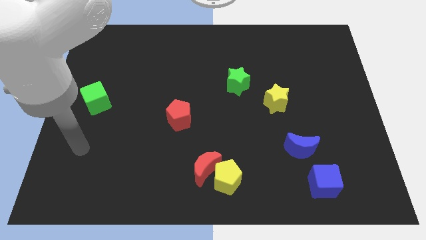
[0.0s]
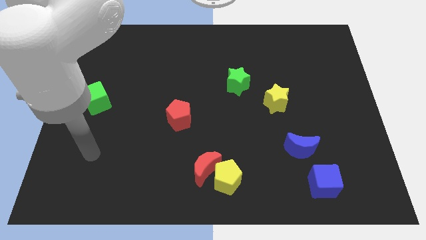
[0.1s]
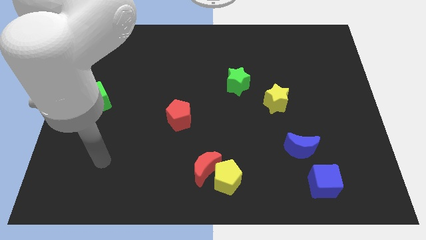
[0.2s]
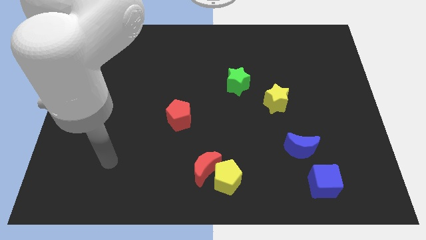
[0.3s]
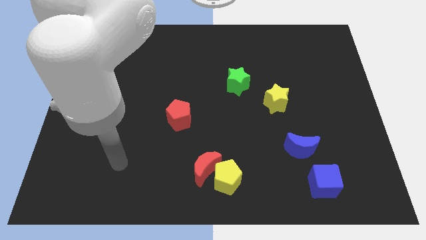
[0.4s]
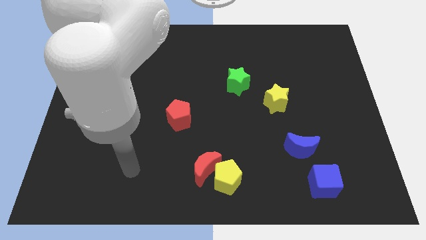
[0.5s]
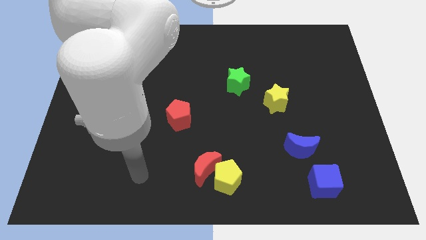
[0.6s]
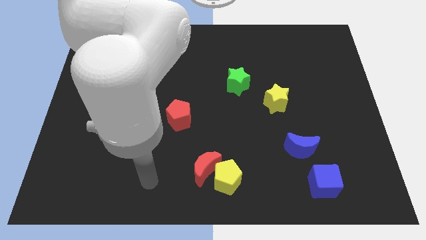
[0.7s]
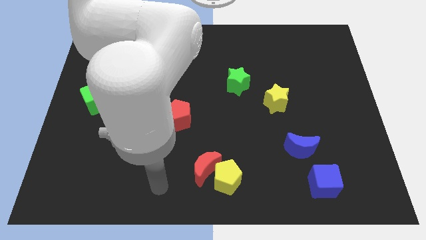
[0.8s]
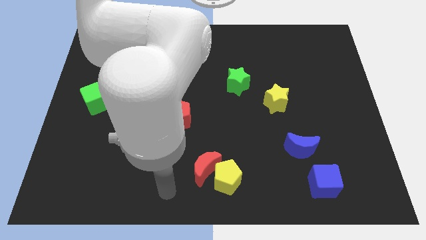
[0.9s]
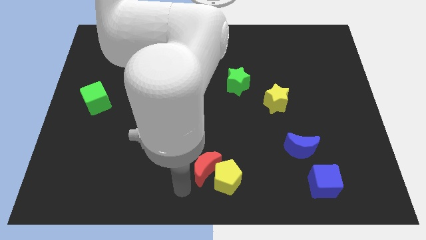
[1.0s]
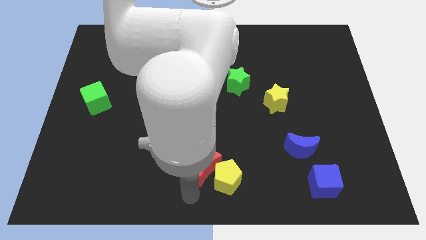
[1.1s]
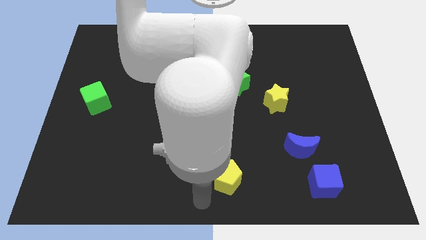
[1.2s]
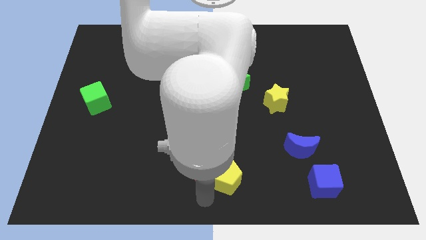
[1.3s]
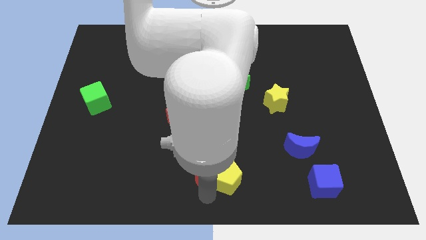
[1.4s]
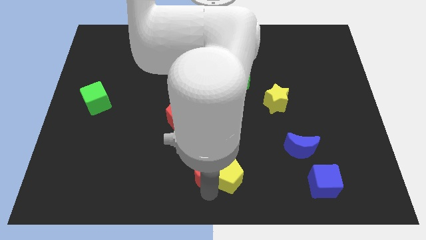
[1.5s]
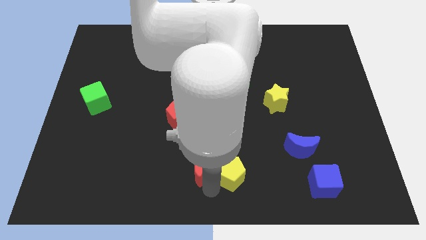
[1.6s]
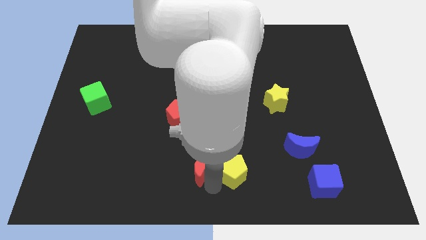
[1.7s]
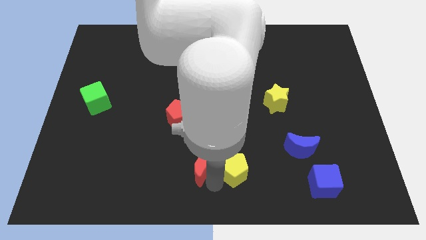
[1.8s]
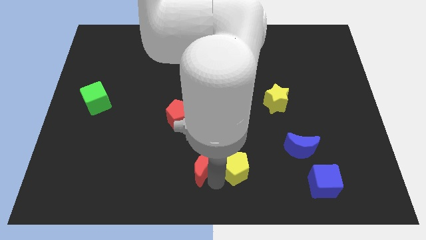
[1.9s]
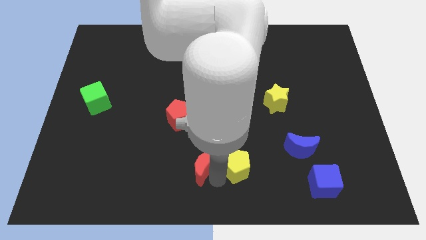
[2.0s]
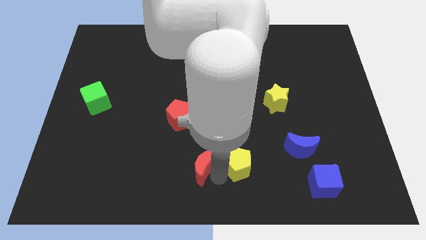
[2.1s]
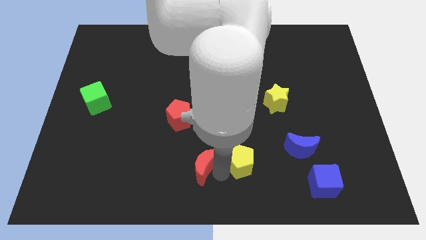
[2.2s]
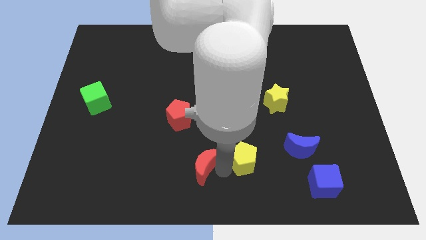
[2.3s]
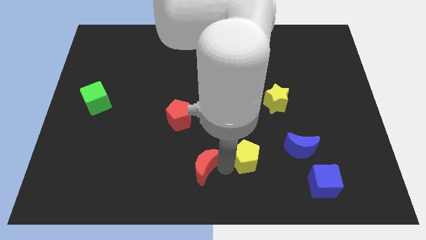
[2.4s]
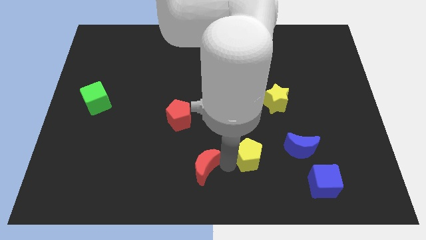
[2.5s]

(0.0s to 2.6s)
slightly push the yellow pentagon up and to the right

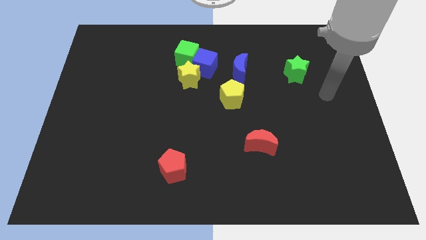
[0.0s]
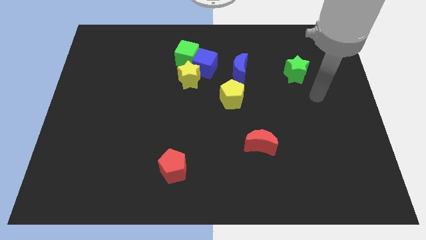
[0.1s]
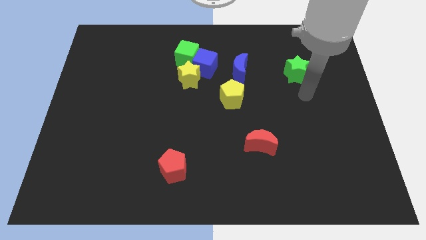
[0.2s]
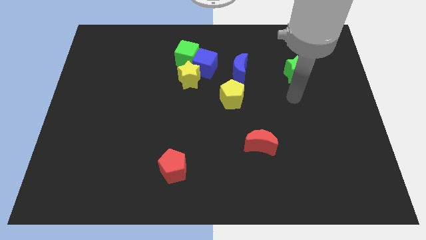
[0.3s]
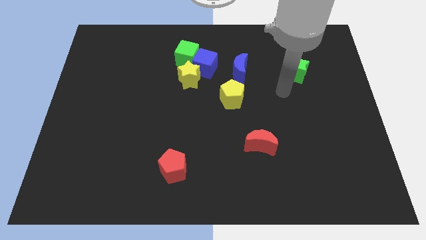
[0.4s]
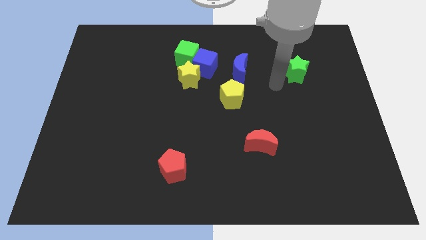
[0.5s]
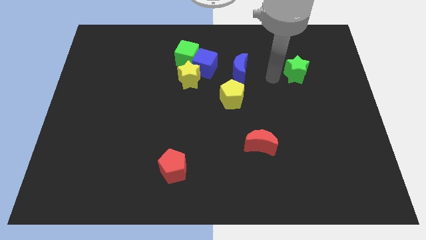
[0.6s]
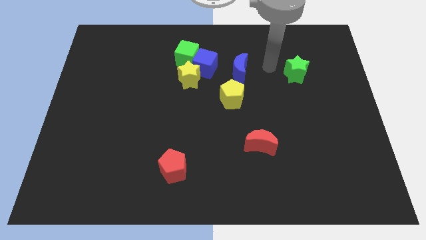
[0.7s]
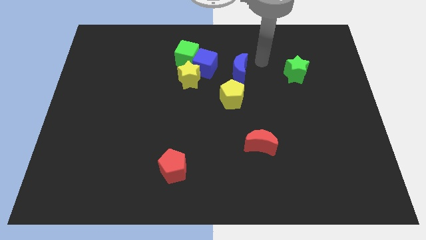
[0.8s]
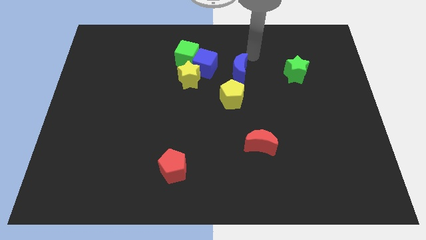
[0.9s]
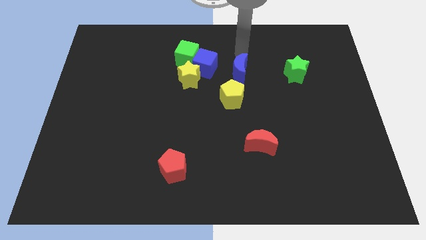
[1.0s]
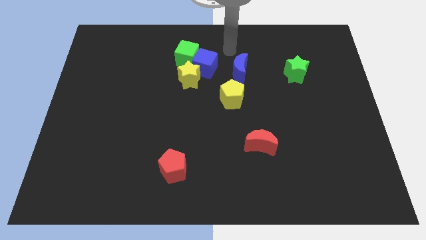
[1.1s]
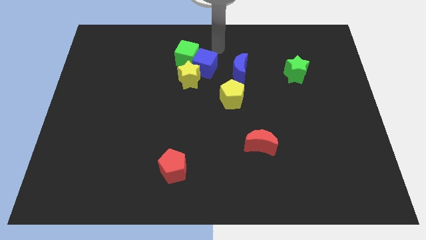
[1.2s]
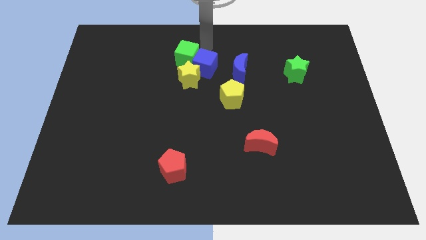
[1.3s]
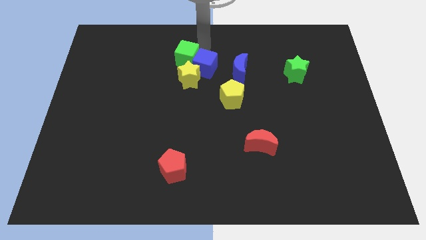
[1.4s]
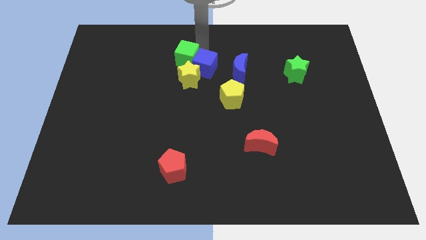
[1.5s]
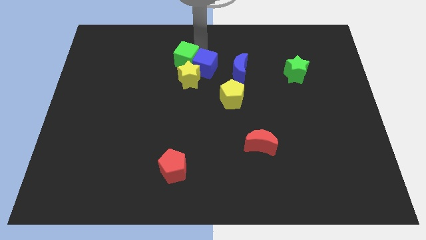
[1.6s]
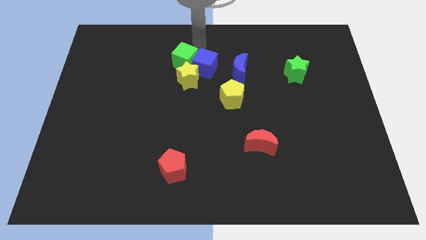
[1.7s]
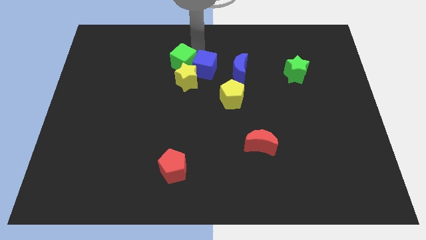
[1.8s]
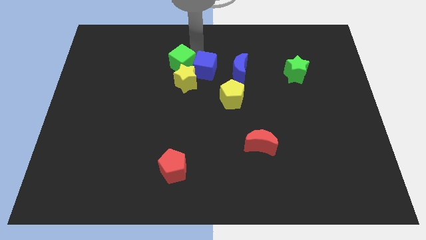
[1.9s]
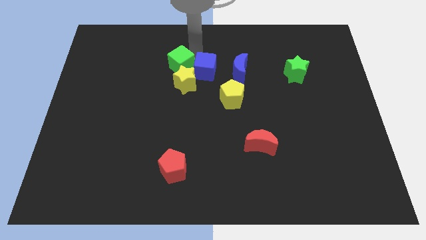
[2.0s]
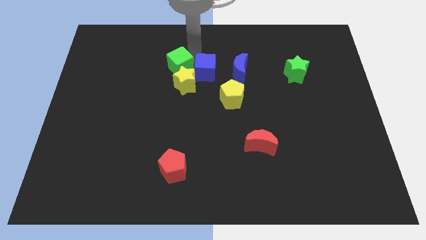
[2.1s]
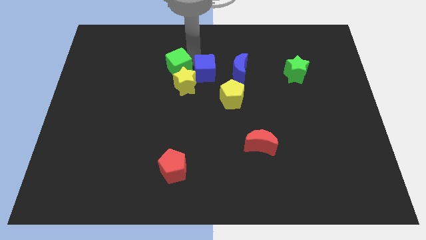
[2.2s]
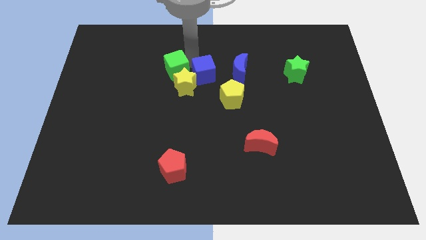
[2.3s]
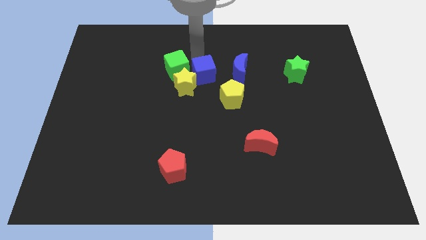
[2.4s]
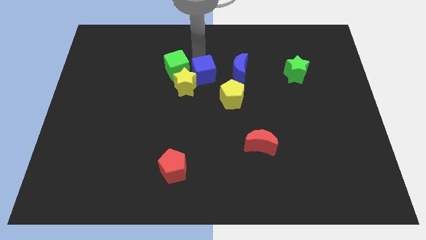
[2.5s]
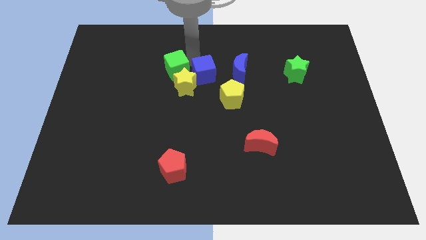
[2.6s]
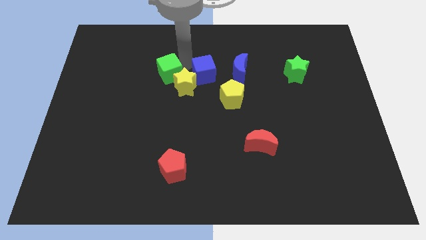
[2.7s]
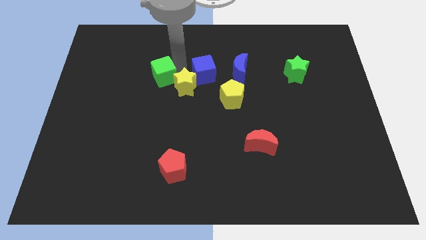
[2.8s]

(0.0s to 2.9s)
slightly move the green cube diagonally downwards and to the left

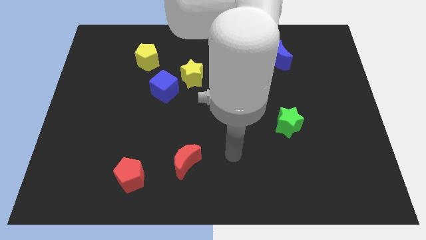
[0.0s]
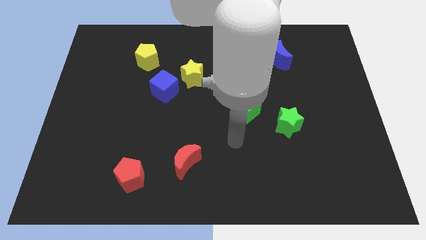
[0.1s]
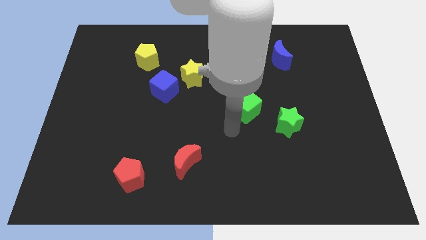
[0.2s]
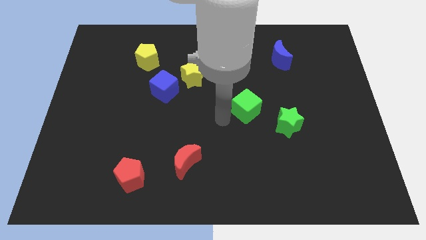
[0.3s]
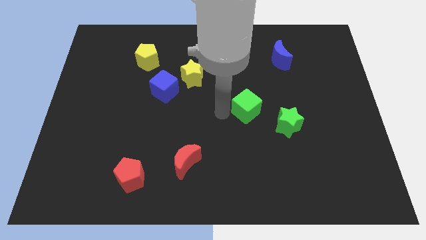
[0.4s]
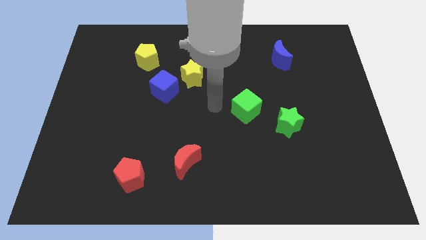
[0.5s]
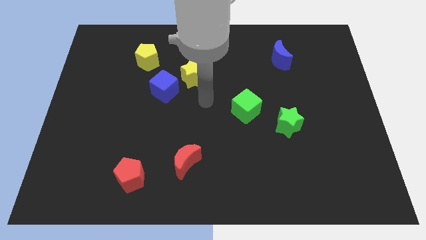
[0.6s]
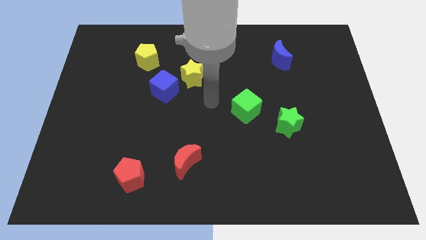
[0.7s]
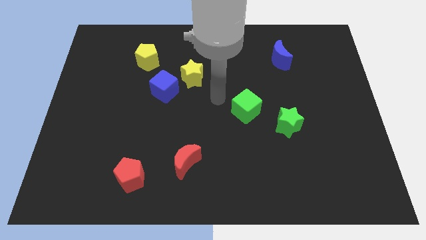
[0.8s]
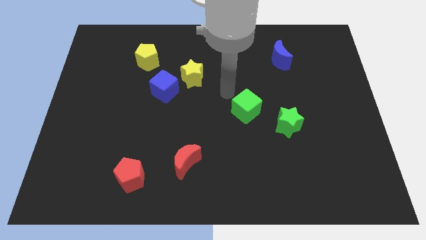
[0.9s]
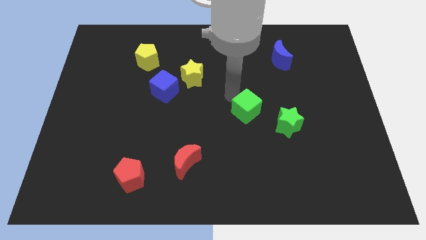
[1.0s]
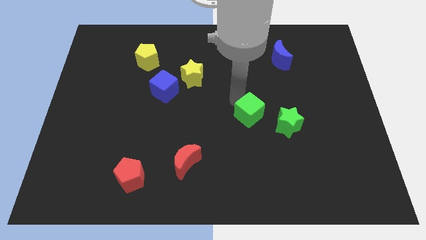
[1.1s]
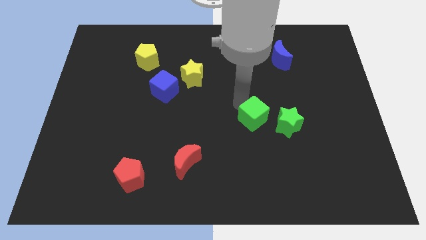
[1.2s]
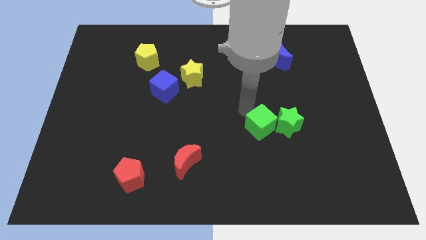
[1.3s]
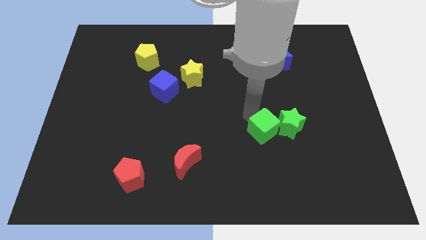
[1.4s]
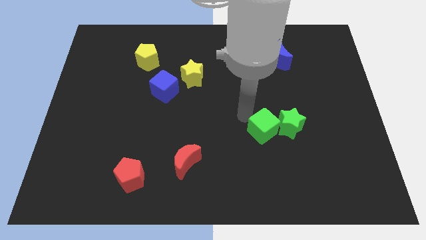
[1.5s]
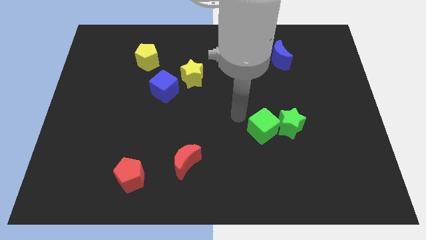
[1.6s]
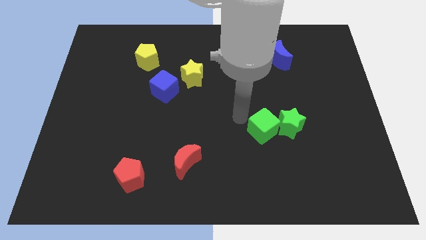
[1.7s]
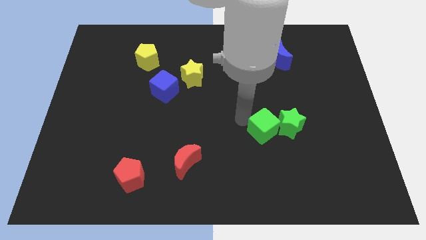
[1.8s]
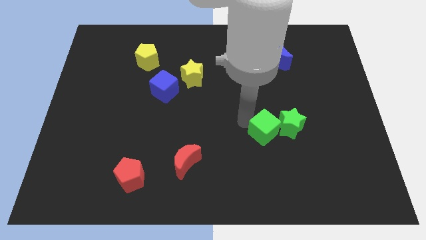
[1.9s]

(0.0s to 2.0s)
push the green cube slightly downwards and to the right

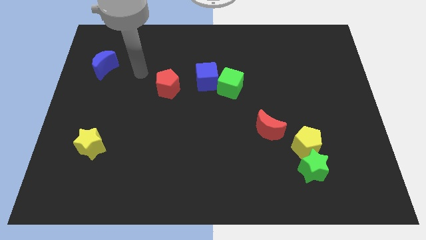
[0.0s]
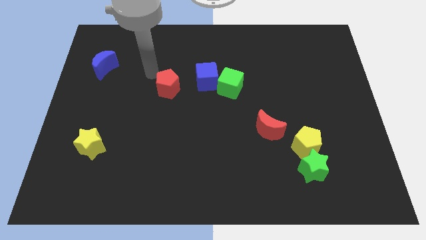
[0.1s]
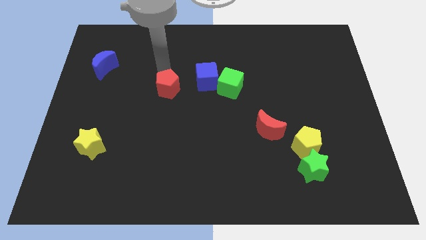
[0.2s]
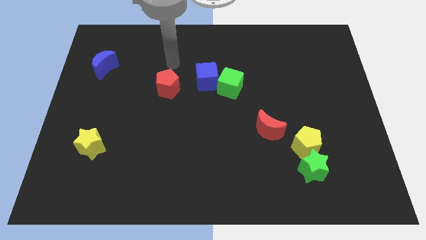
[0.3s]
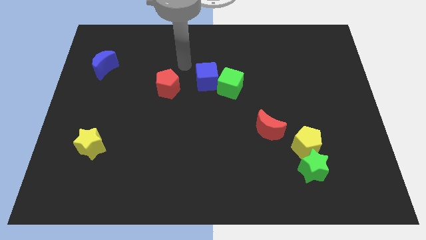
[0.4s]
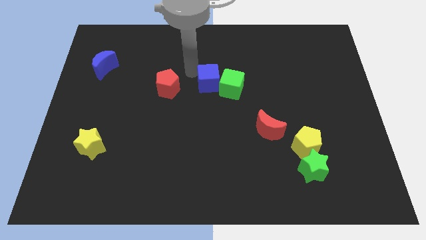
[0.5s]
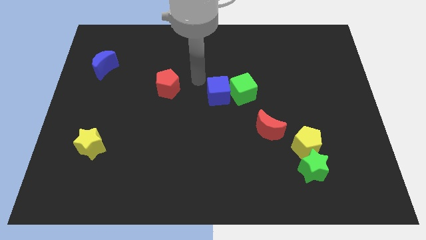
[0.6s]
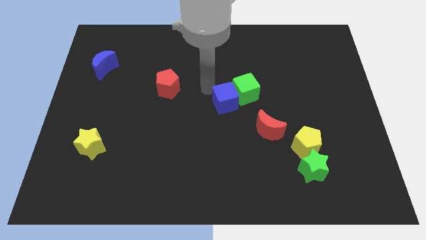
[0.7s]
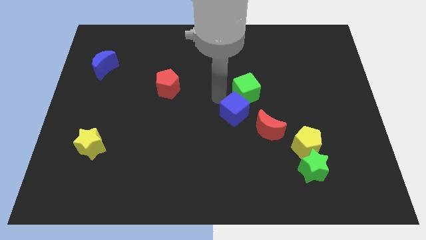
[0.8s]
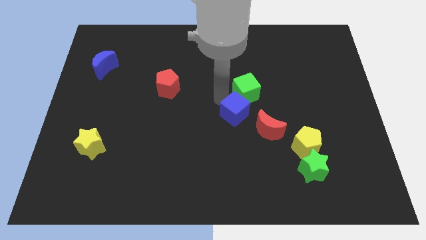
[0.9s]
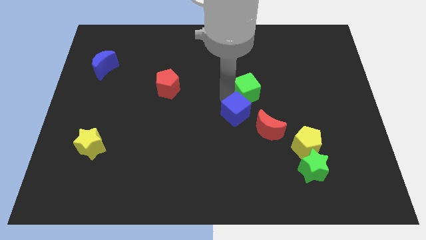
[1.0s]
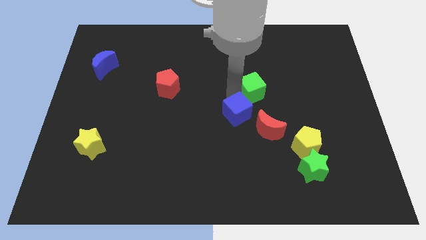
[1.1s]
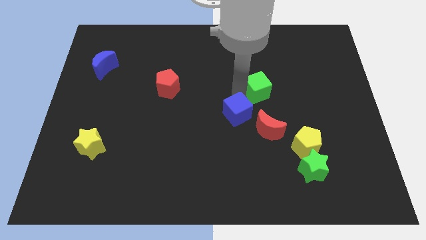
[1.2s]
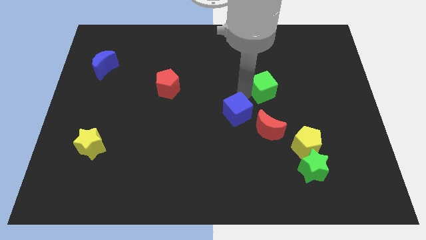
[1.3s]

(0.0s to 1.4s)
slide the green cube somewhat to the right
